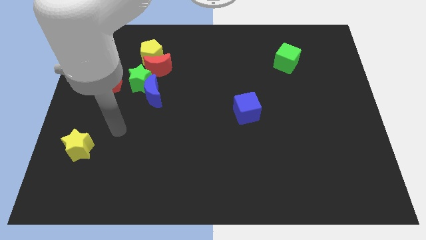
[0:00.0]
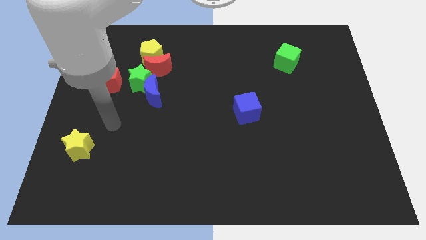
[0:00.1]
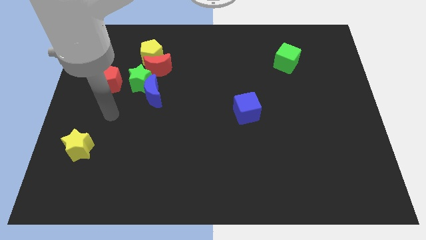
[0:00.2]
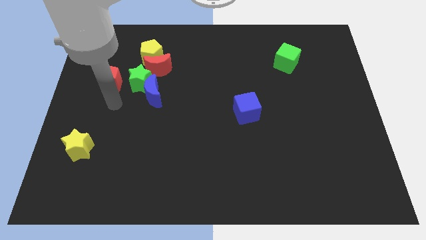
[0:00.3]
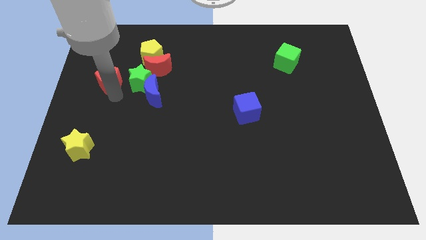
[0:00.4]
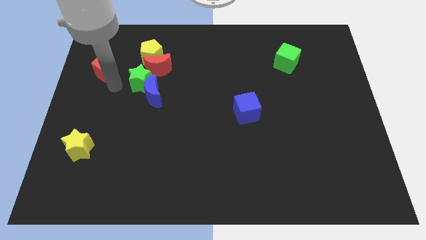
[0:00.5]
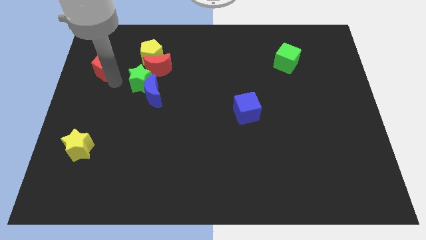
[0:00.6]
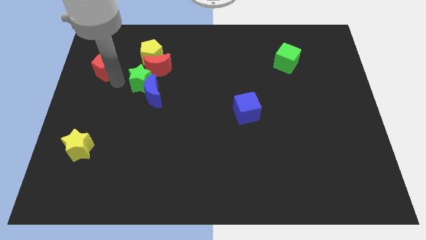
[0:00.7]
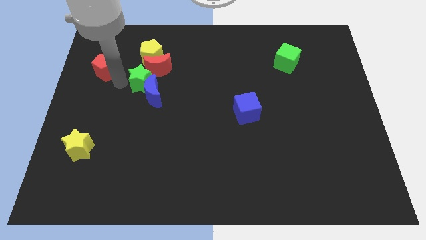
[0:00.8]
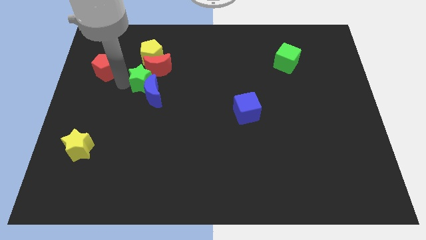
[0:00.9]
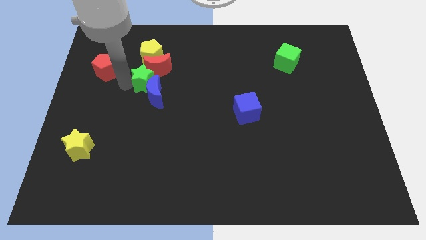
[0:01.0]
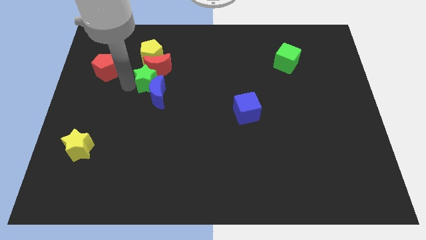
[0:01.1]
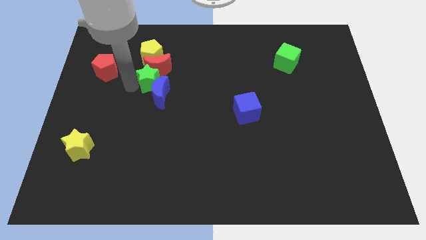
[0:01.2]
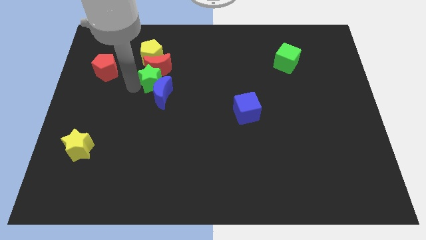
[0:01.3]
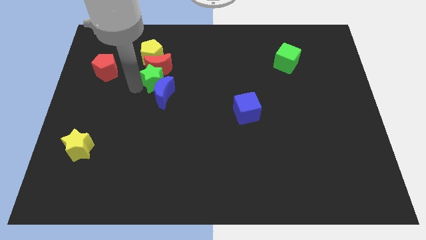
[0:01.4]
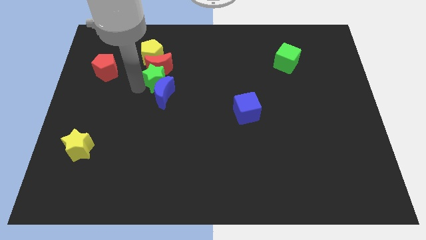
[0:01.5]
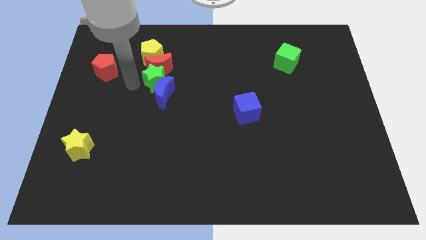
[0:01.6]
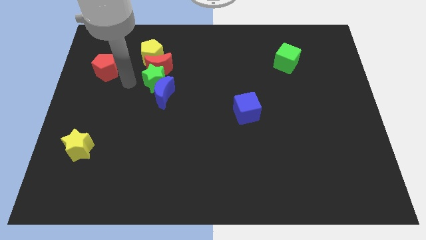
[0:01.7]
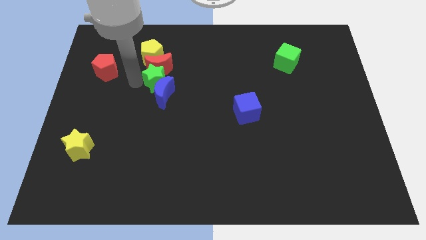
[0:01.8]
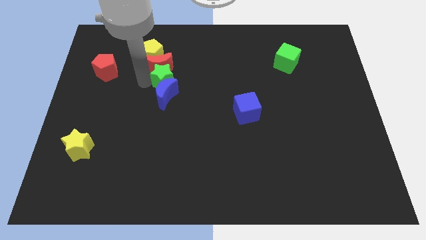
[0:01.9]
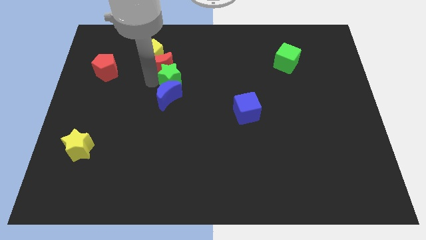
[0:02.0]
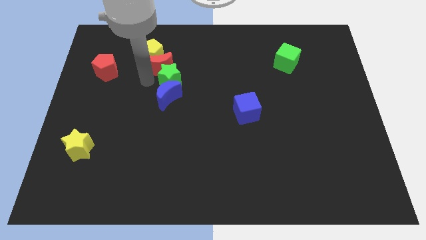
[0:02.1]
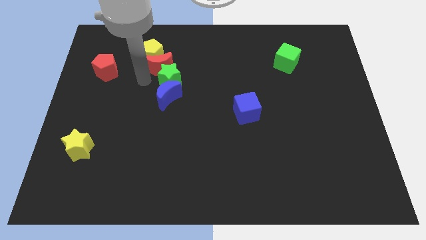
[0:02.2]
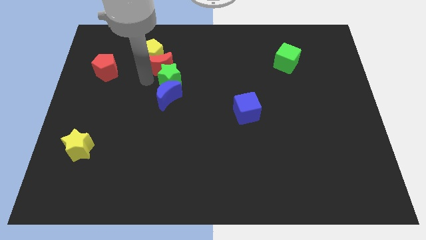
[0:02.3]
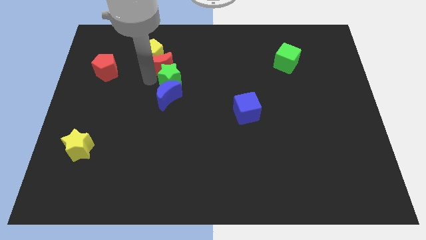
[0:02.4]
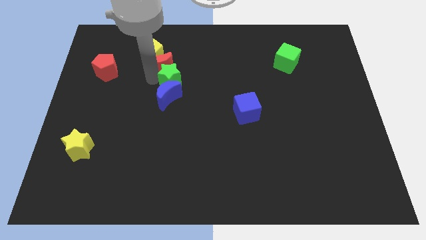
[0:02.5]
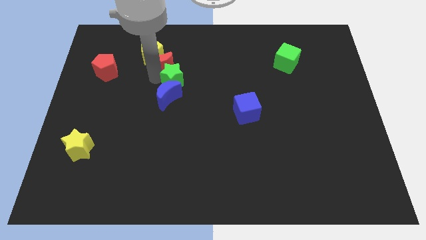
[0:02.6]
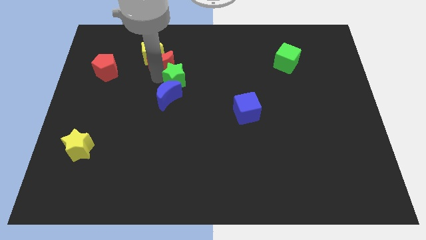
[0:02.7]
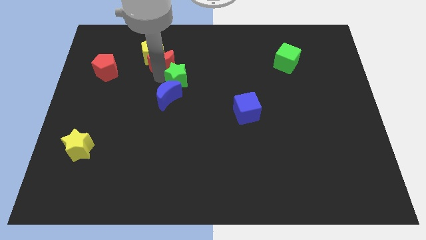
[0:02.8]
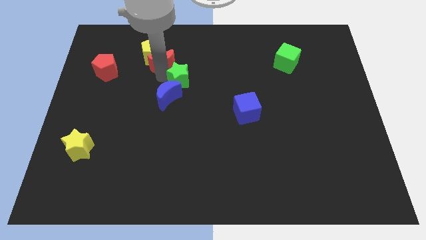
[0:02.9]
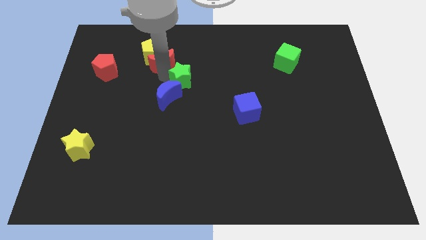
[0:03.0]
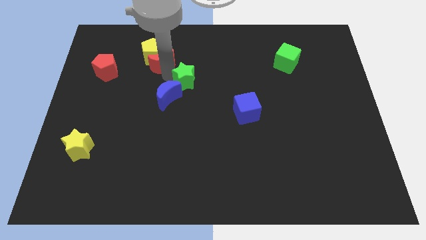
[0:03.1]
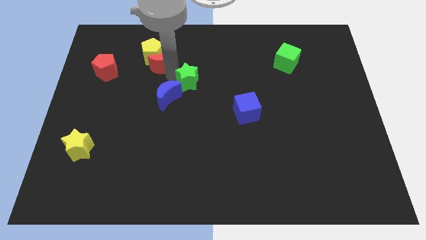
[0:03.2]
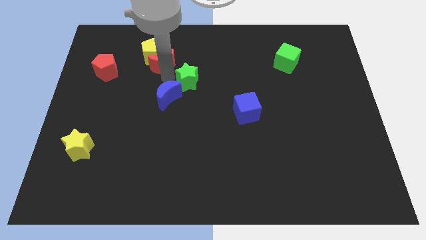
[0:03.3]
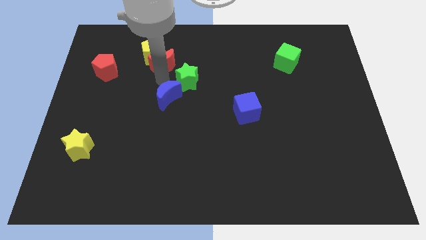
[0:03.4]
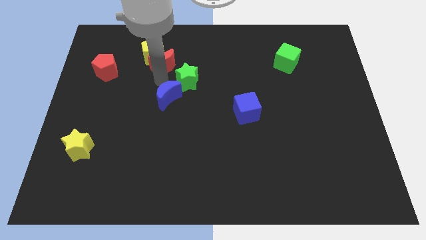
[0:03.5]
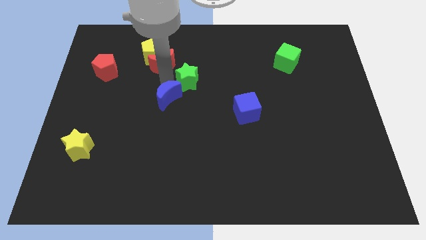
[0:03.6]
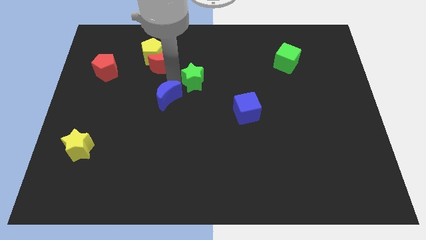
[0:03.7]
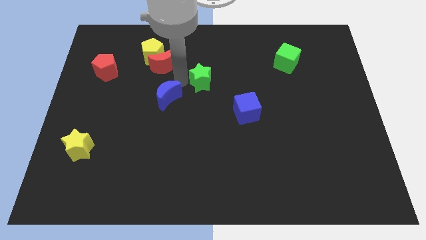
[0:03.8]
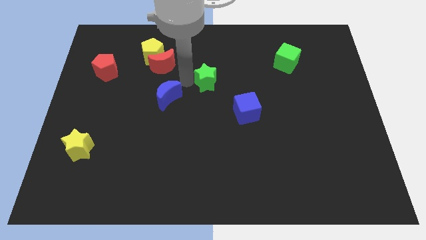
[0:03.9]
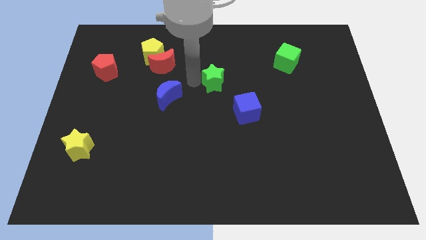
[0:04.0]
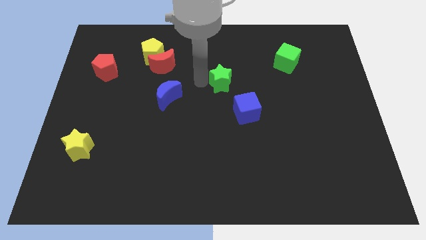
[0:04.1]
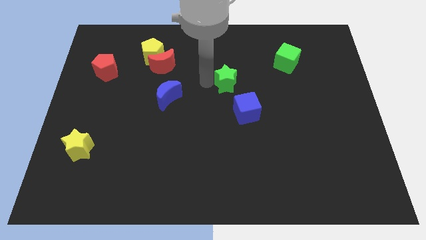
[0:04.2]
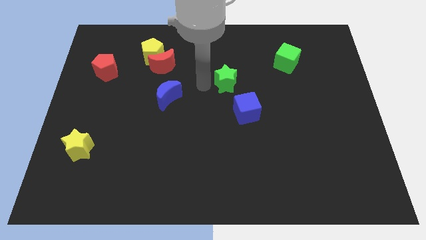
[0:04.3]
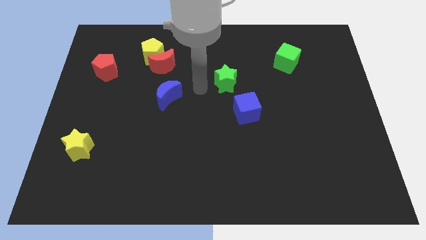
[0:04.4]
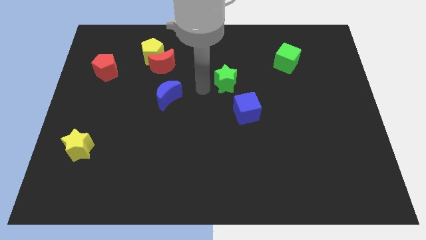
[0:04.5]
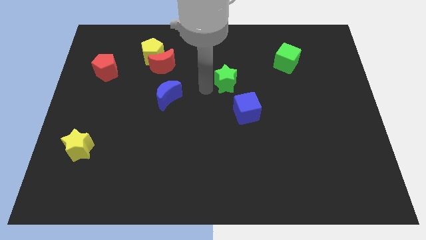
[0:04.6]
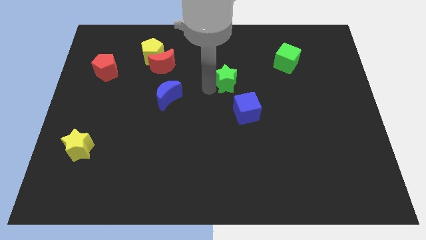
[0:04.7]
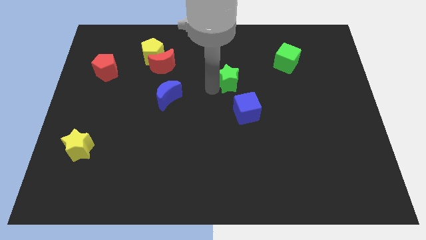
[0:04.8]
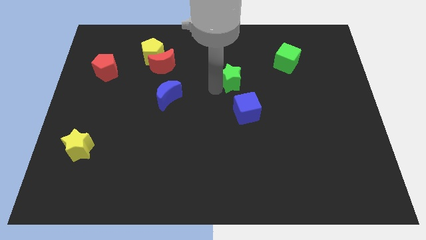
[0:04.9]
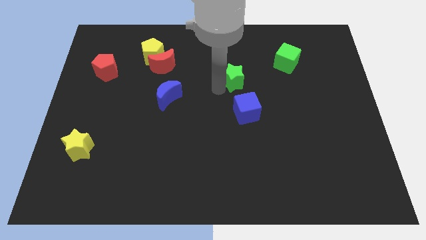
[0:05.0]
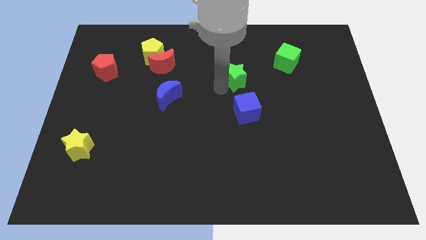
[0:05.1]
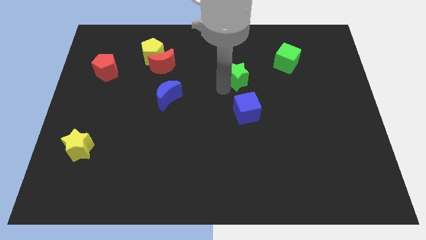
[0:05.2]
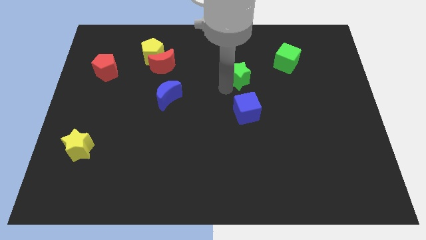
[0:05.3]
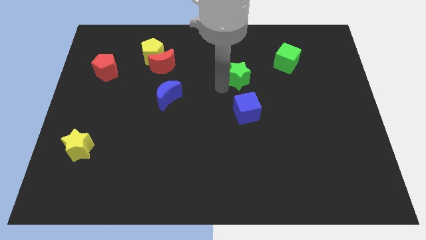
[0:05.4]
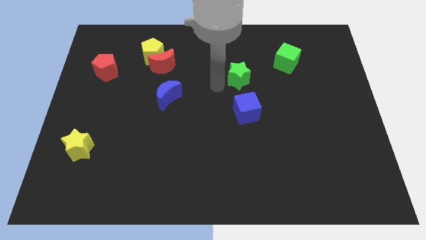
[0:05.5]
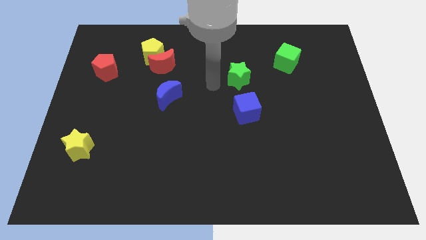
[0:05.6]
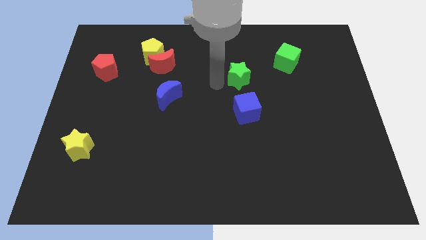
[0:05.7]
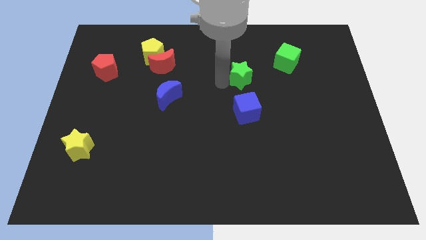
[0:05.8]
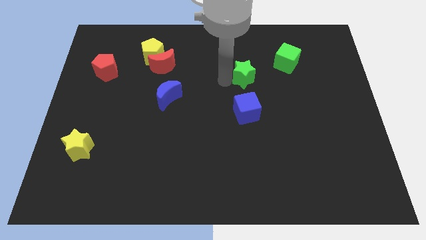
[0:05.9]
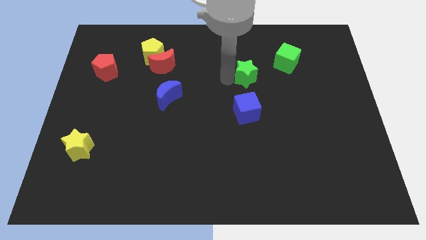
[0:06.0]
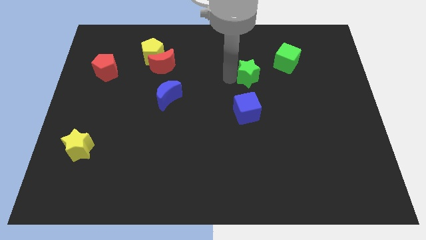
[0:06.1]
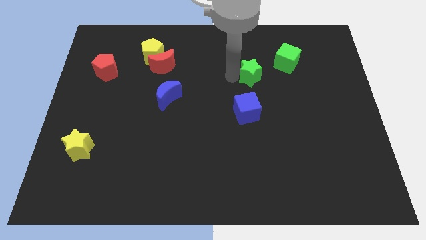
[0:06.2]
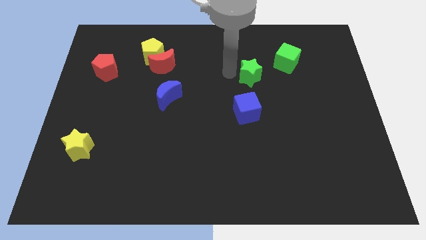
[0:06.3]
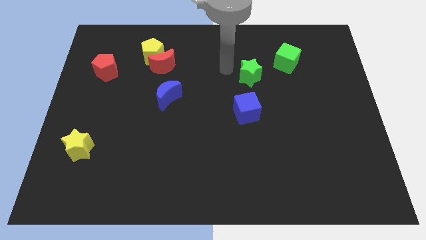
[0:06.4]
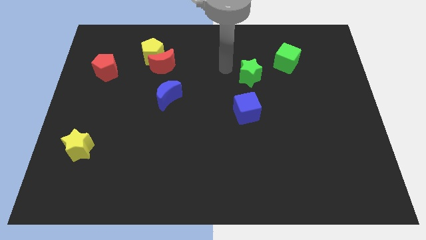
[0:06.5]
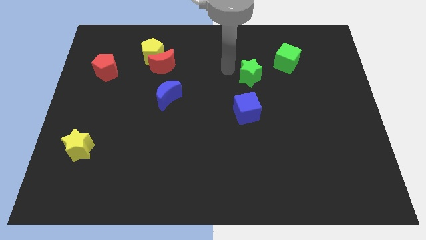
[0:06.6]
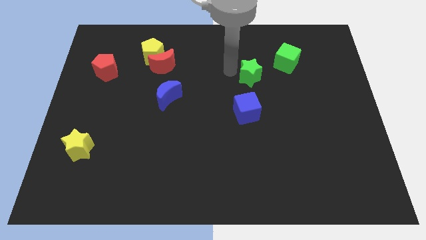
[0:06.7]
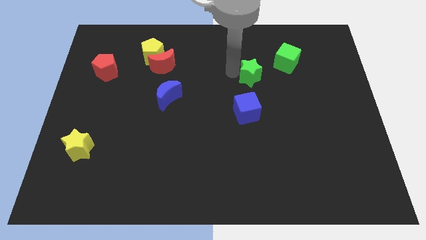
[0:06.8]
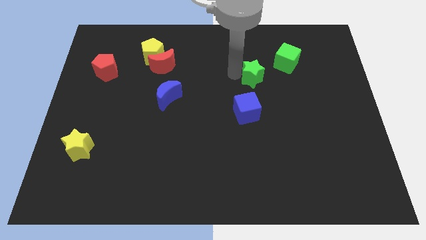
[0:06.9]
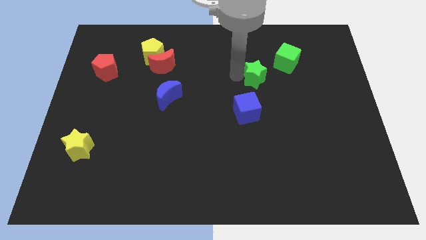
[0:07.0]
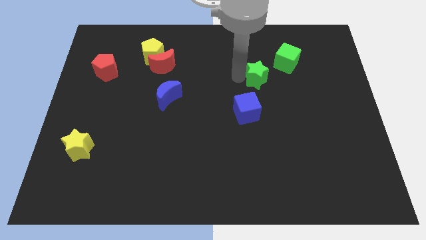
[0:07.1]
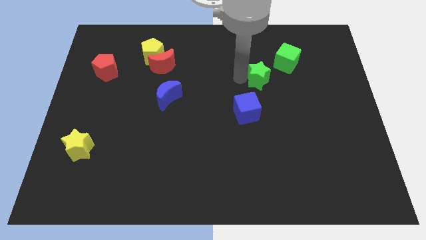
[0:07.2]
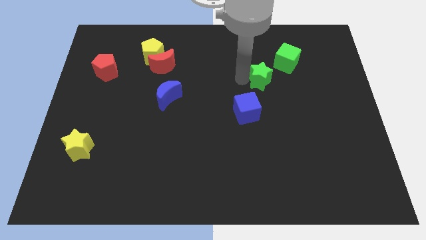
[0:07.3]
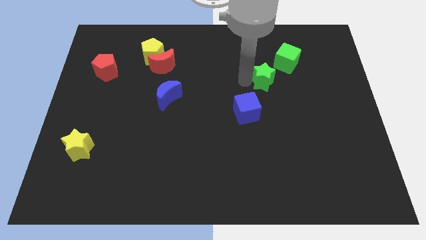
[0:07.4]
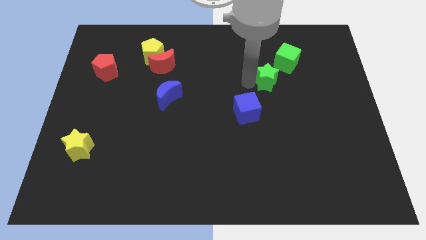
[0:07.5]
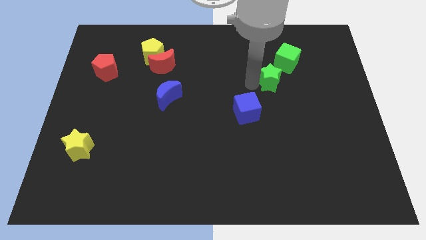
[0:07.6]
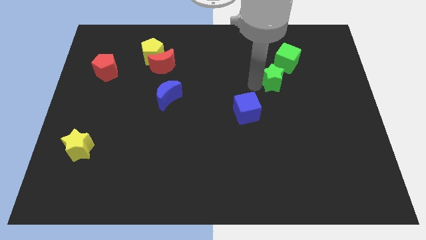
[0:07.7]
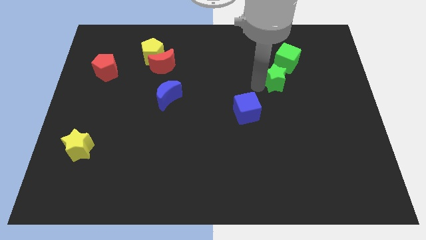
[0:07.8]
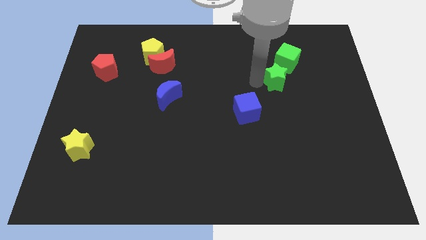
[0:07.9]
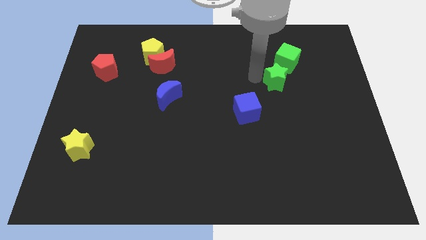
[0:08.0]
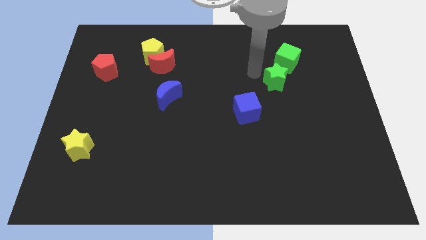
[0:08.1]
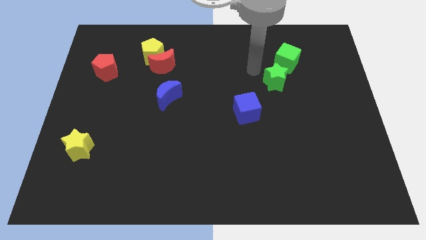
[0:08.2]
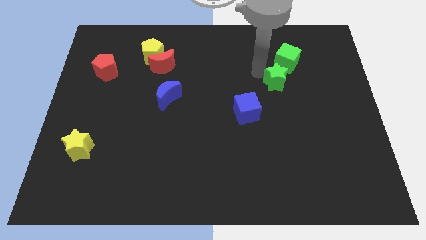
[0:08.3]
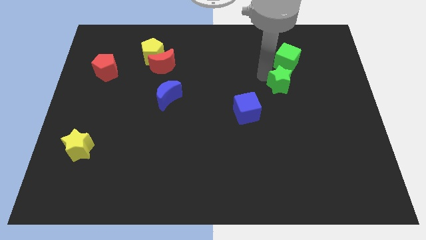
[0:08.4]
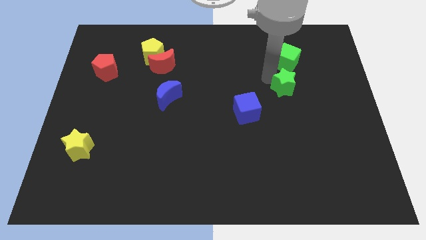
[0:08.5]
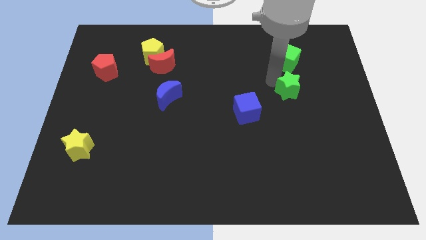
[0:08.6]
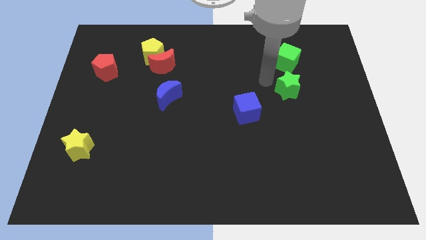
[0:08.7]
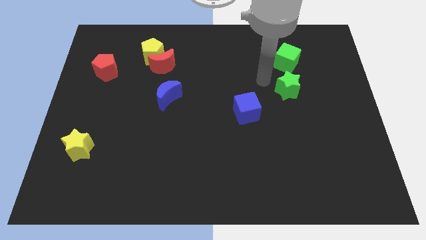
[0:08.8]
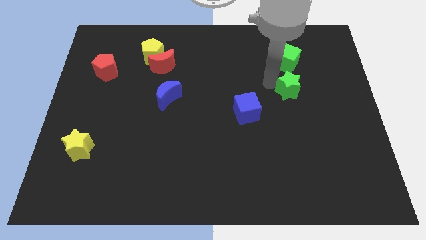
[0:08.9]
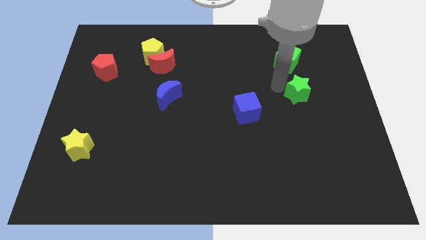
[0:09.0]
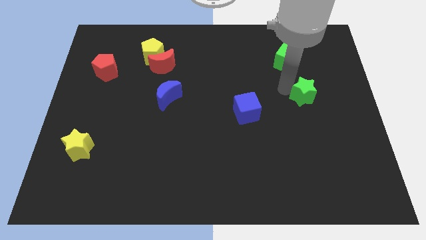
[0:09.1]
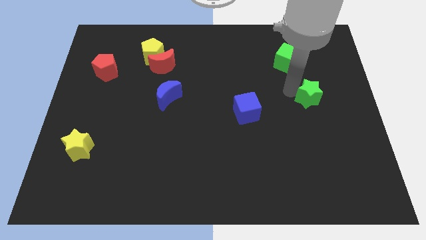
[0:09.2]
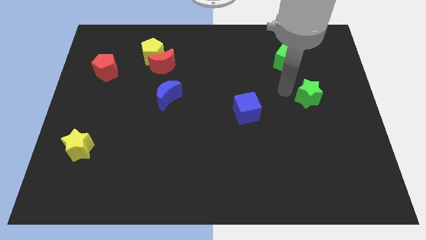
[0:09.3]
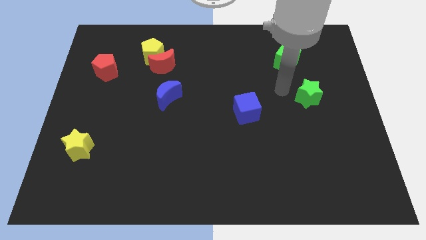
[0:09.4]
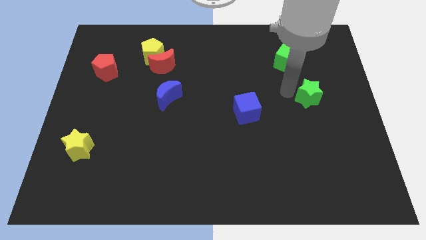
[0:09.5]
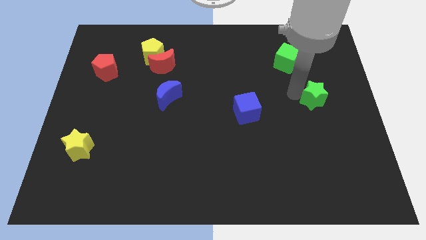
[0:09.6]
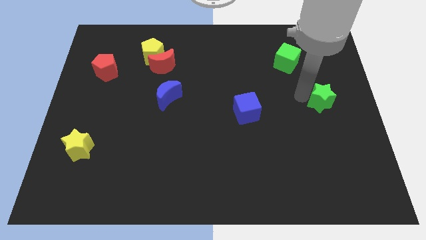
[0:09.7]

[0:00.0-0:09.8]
slide the green star to the center right
